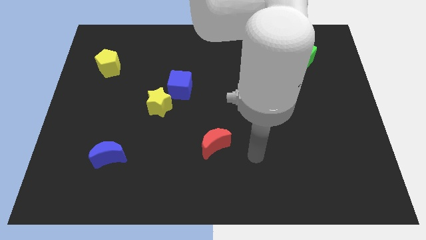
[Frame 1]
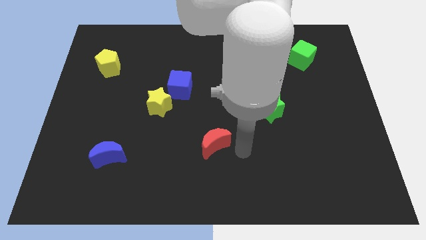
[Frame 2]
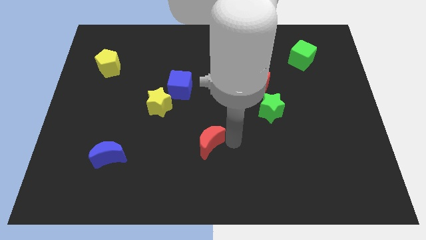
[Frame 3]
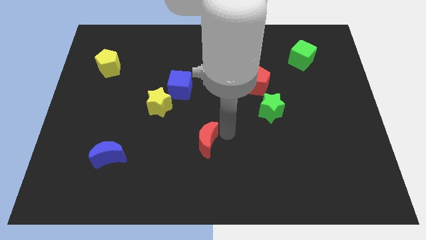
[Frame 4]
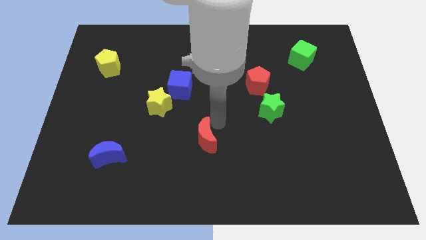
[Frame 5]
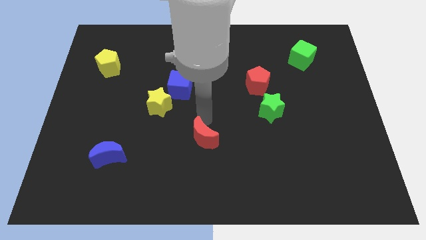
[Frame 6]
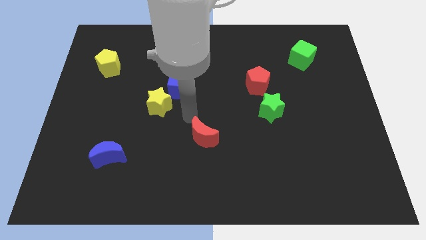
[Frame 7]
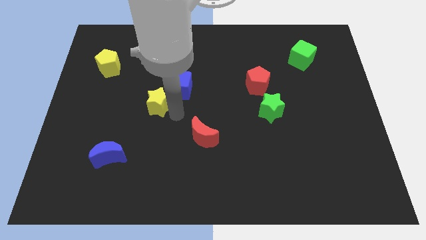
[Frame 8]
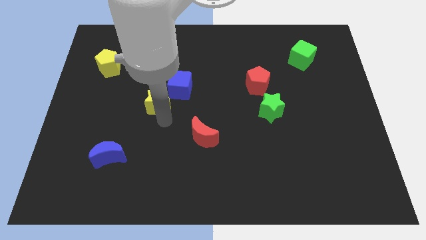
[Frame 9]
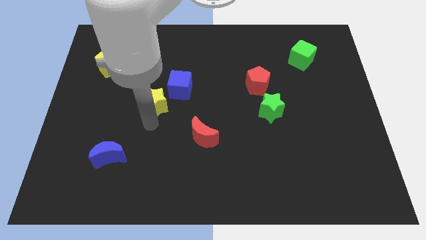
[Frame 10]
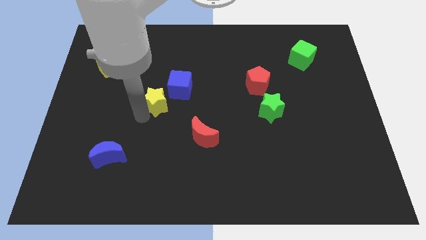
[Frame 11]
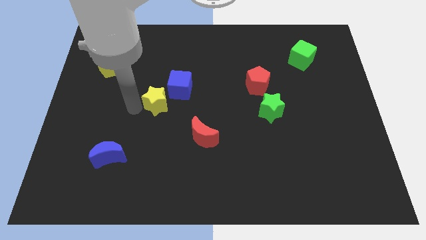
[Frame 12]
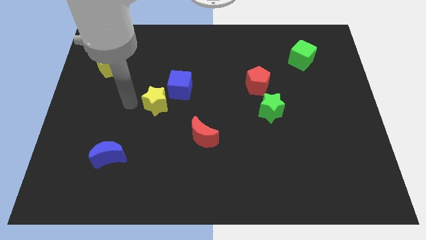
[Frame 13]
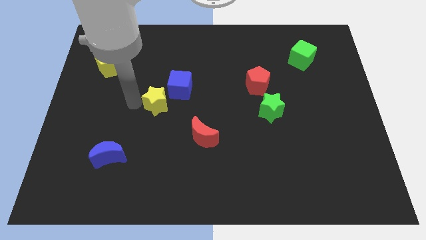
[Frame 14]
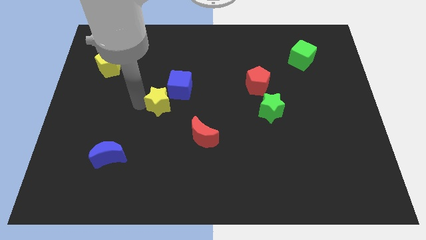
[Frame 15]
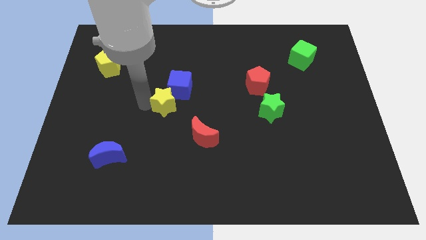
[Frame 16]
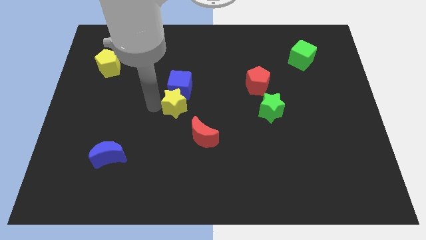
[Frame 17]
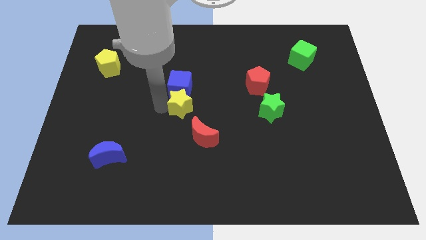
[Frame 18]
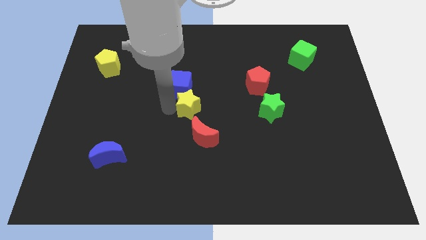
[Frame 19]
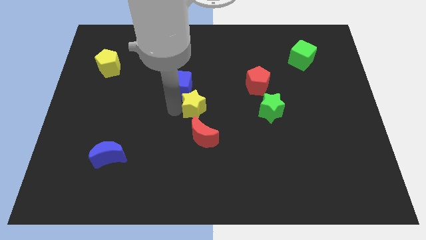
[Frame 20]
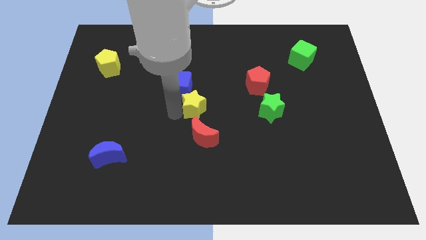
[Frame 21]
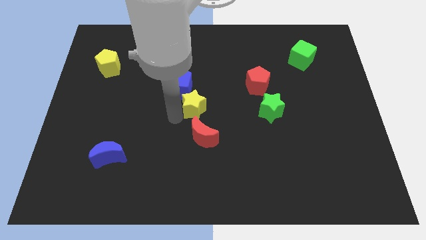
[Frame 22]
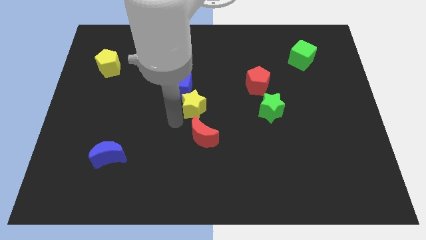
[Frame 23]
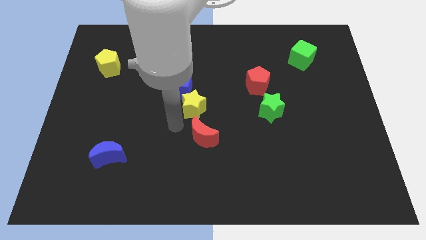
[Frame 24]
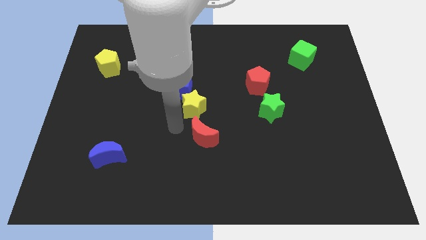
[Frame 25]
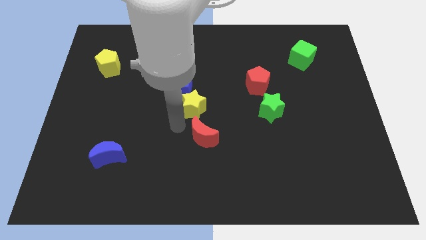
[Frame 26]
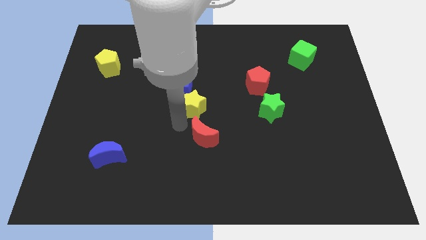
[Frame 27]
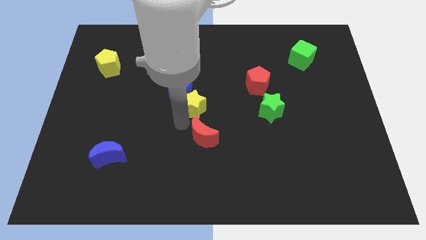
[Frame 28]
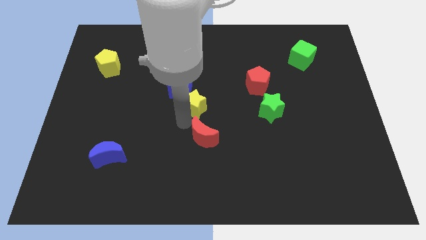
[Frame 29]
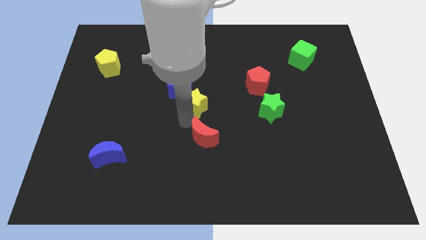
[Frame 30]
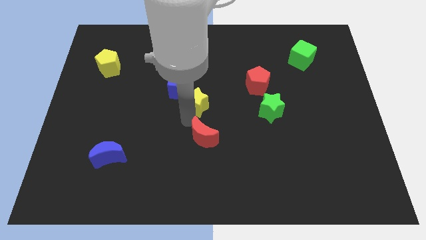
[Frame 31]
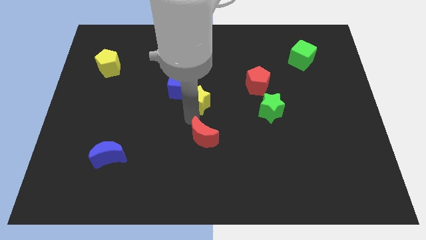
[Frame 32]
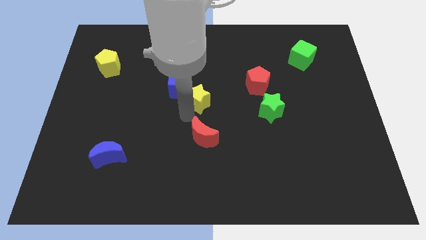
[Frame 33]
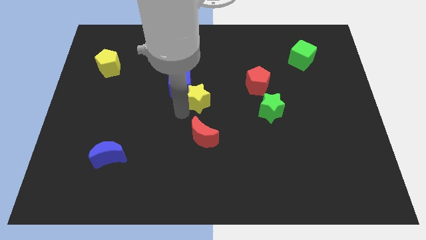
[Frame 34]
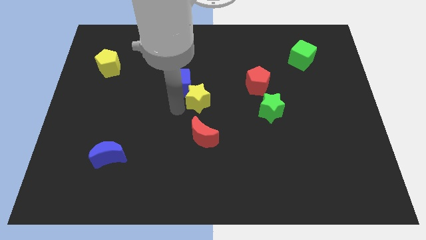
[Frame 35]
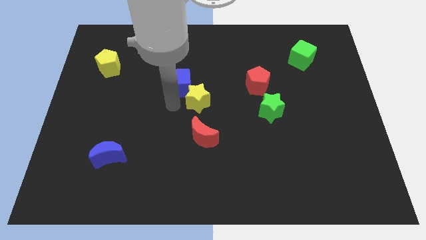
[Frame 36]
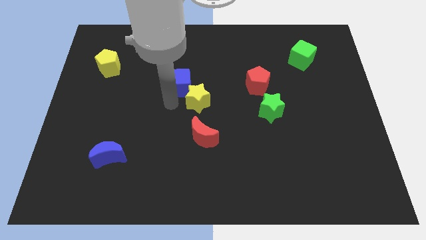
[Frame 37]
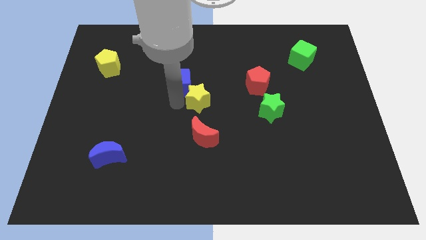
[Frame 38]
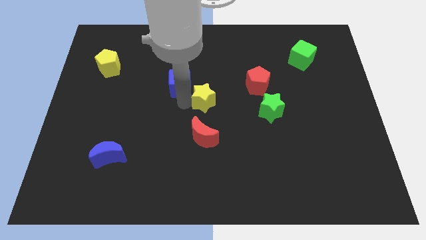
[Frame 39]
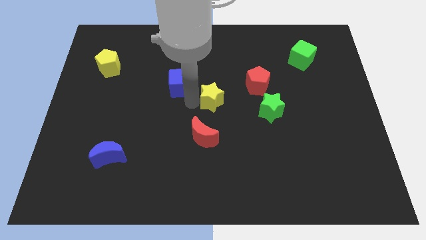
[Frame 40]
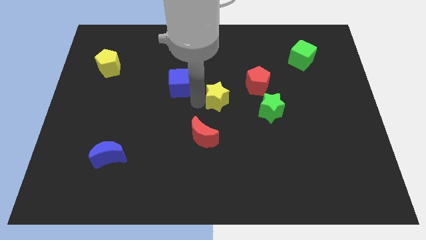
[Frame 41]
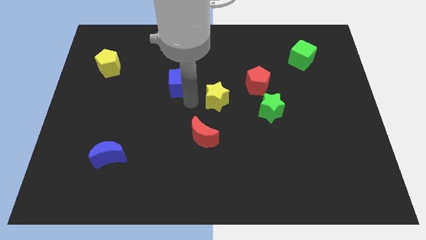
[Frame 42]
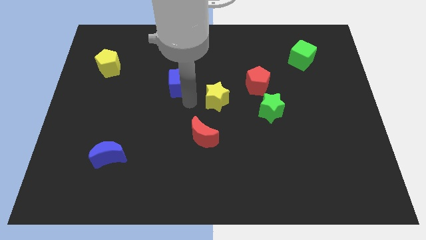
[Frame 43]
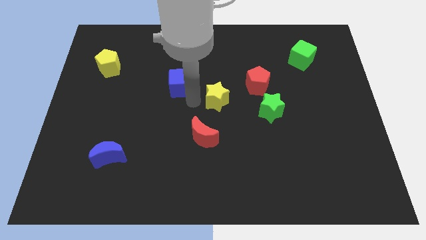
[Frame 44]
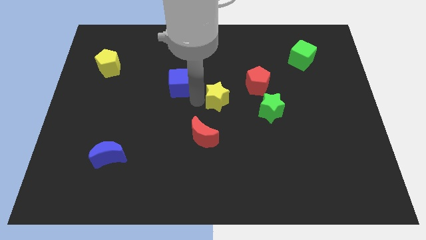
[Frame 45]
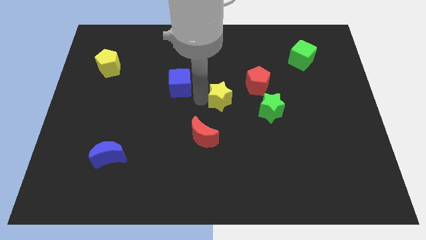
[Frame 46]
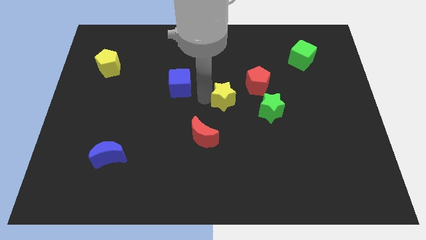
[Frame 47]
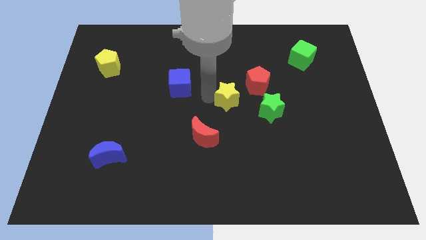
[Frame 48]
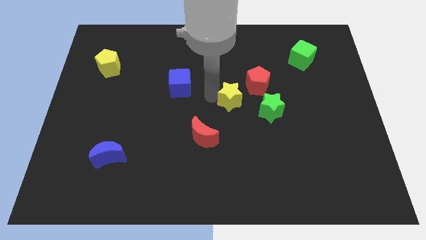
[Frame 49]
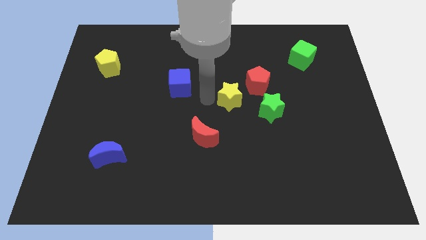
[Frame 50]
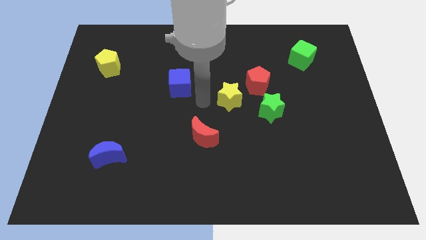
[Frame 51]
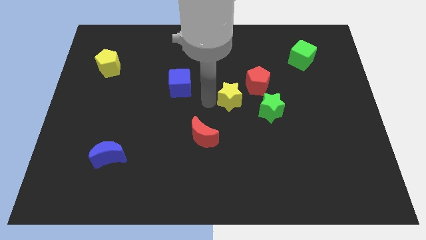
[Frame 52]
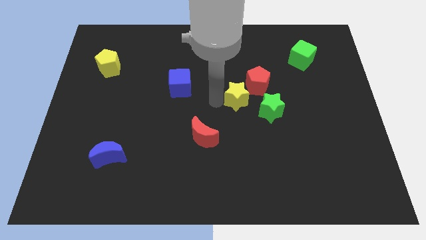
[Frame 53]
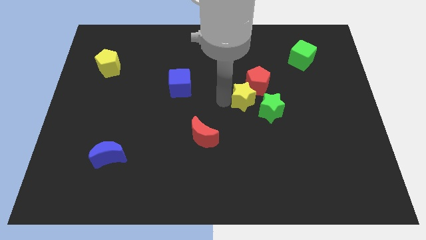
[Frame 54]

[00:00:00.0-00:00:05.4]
move the yellow star right

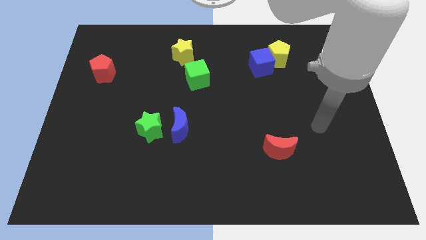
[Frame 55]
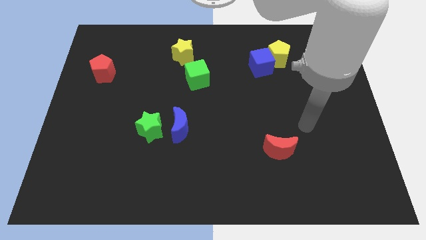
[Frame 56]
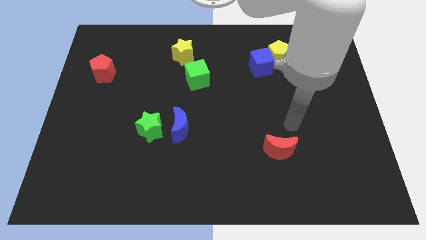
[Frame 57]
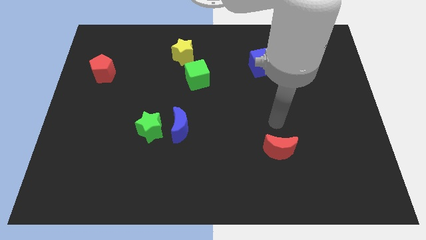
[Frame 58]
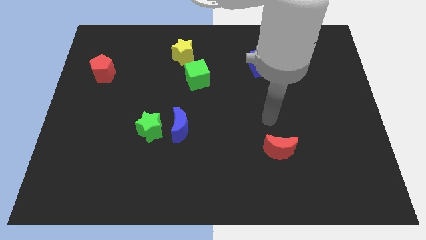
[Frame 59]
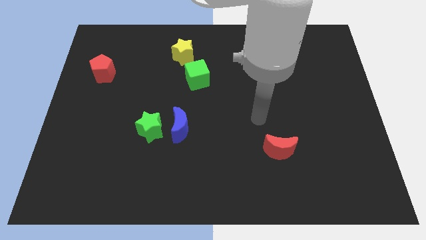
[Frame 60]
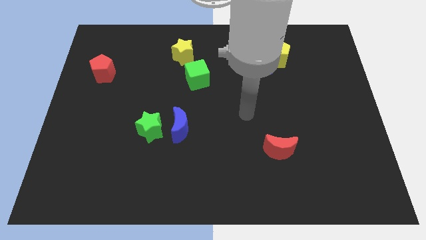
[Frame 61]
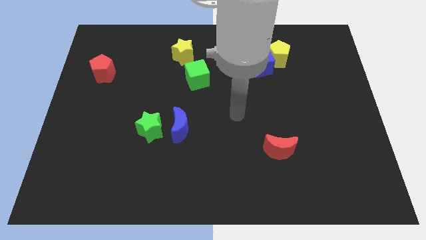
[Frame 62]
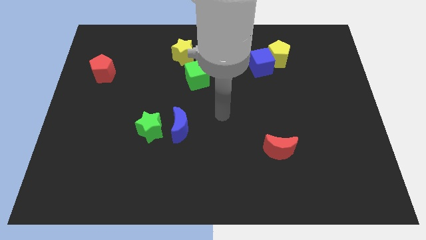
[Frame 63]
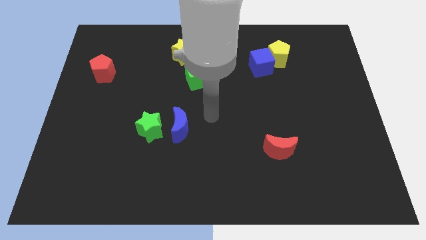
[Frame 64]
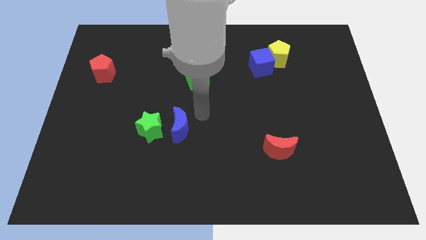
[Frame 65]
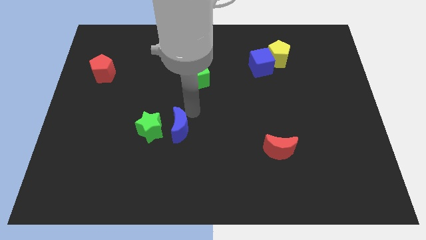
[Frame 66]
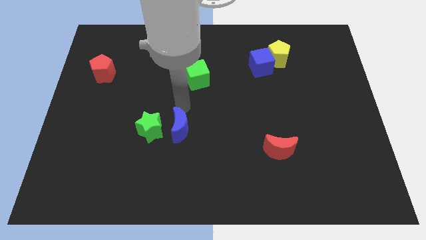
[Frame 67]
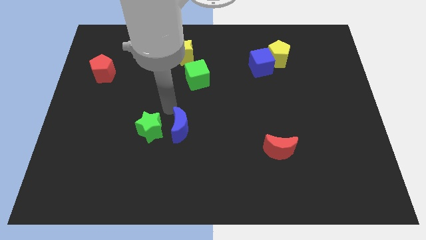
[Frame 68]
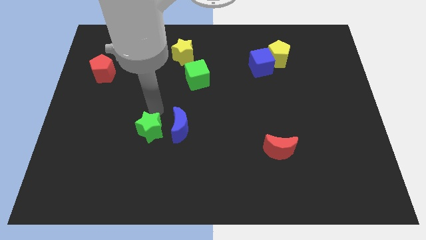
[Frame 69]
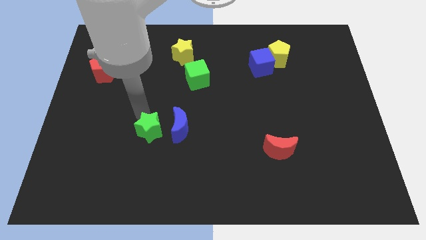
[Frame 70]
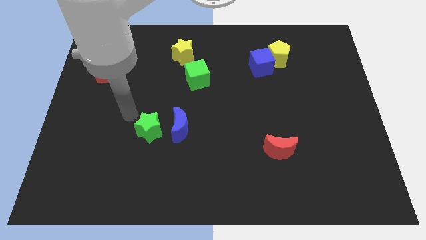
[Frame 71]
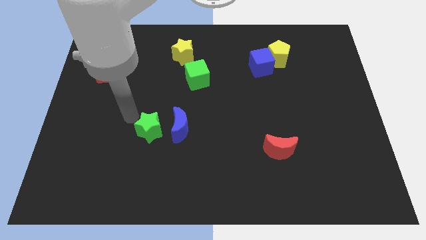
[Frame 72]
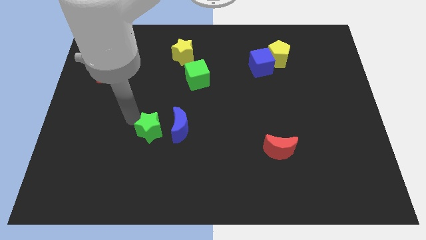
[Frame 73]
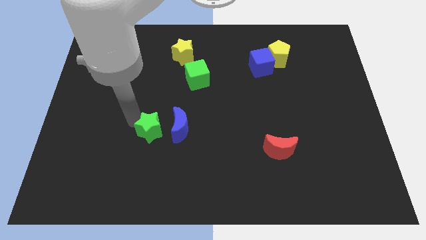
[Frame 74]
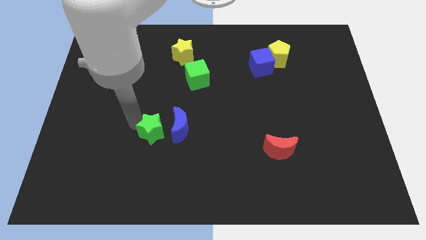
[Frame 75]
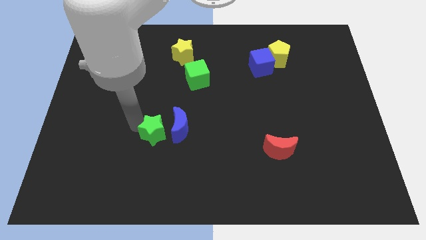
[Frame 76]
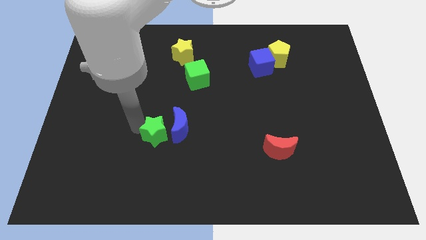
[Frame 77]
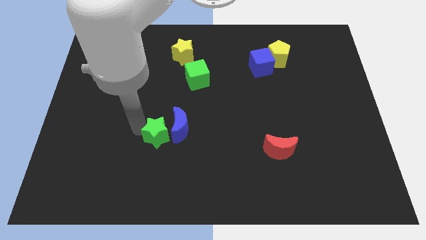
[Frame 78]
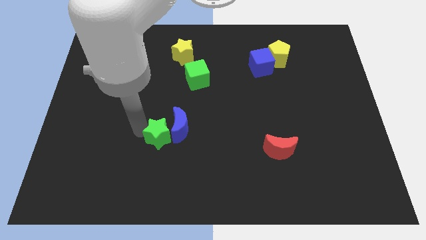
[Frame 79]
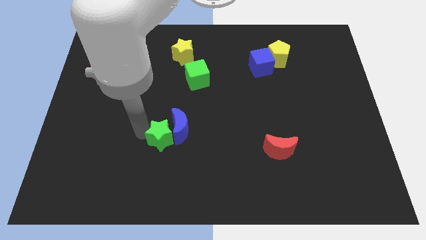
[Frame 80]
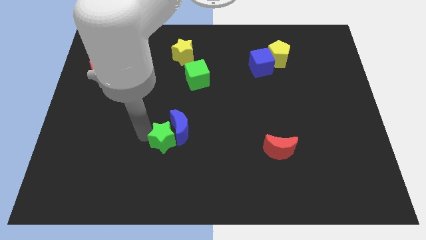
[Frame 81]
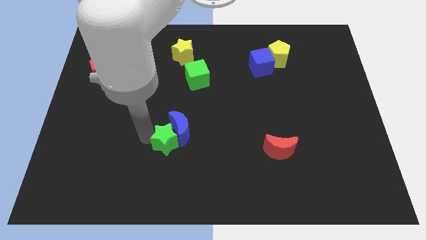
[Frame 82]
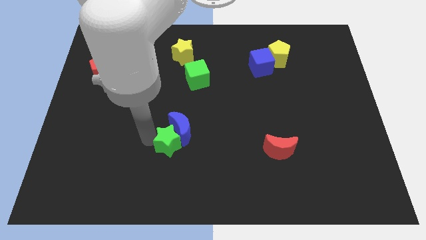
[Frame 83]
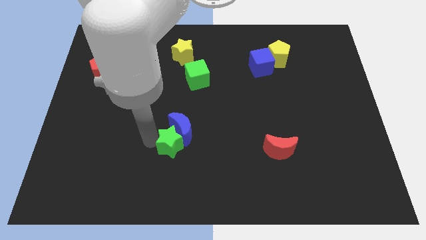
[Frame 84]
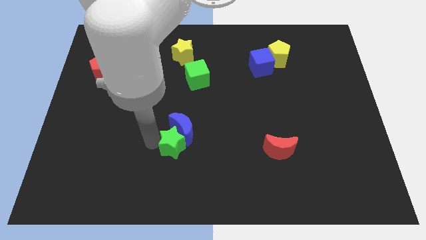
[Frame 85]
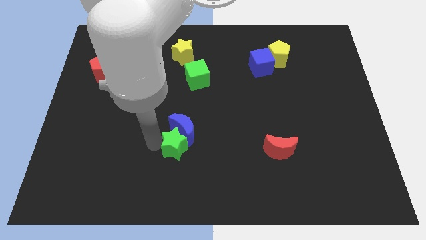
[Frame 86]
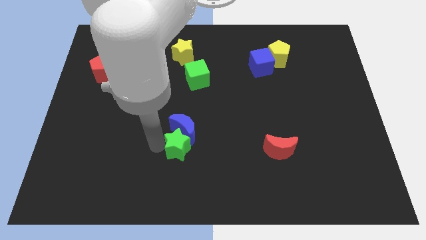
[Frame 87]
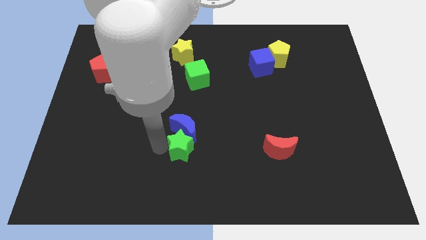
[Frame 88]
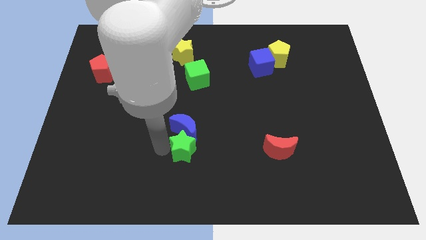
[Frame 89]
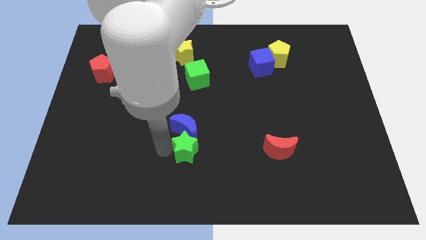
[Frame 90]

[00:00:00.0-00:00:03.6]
push the green star right slightly
